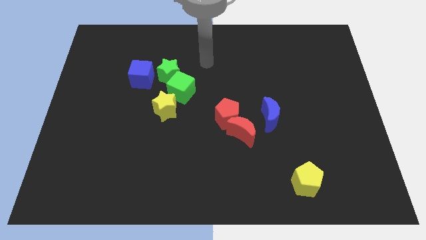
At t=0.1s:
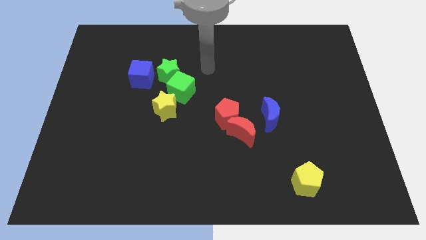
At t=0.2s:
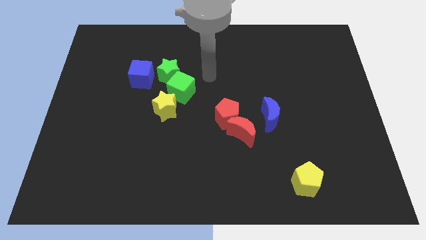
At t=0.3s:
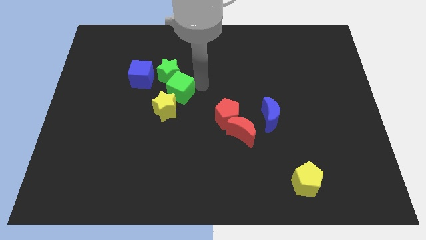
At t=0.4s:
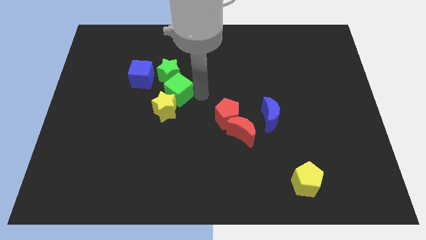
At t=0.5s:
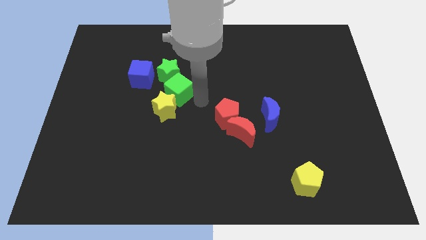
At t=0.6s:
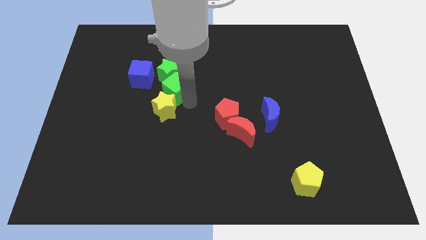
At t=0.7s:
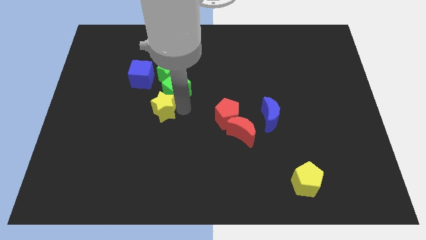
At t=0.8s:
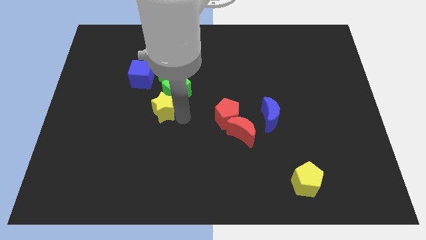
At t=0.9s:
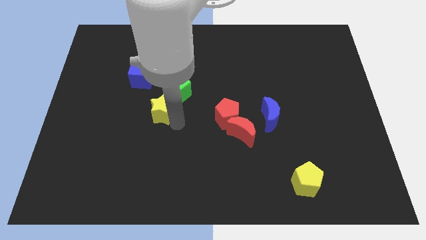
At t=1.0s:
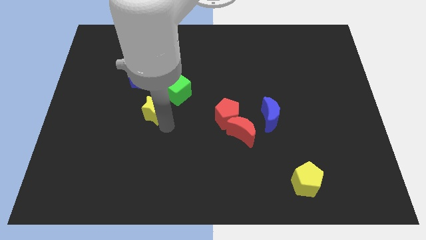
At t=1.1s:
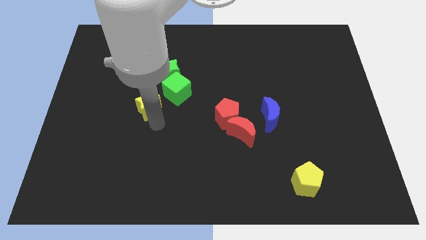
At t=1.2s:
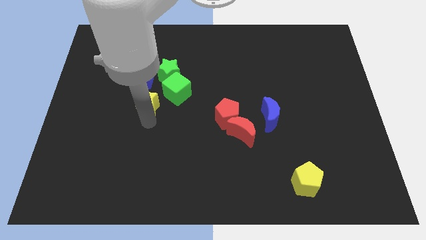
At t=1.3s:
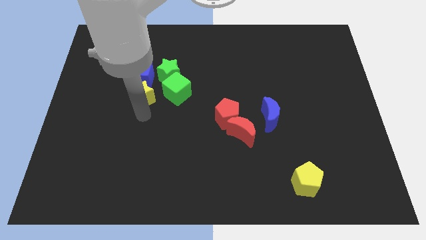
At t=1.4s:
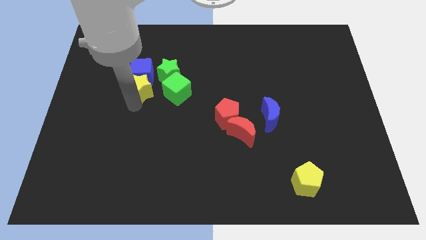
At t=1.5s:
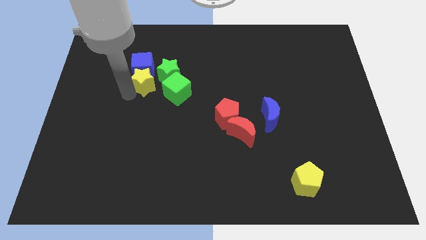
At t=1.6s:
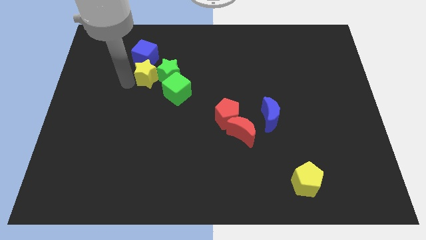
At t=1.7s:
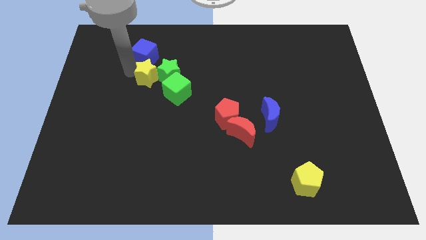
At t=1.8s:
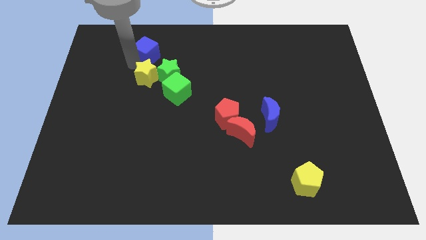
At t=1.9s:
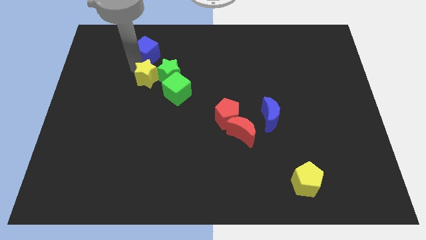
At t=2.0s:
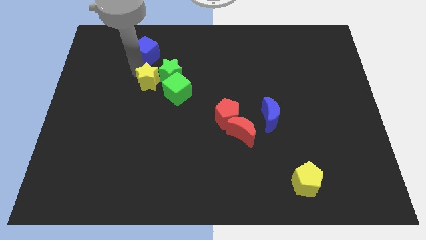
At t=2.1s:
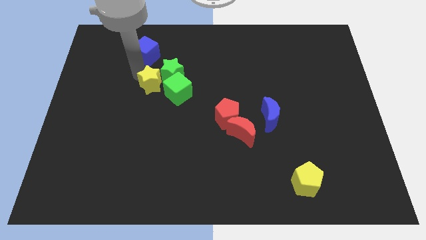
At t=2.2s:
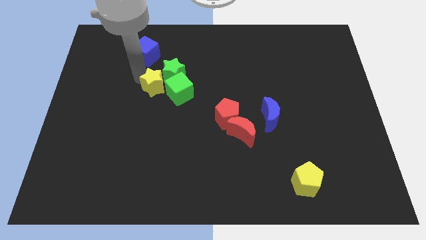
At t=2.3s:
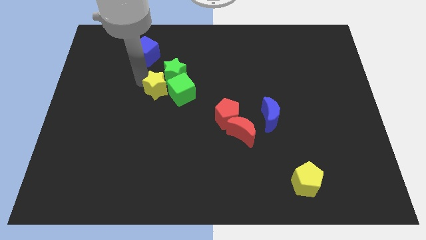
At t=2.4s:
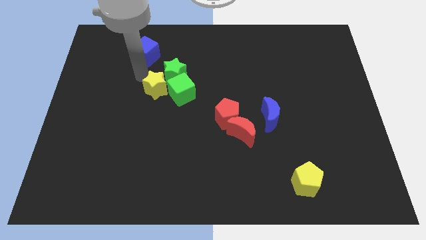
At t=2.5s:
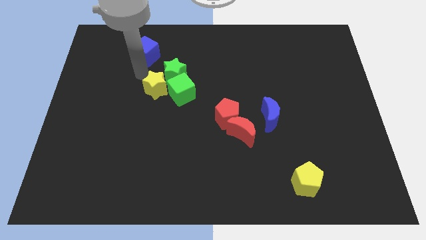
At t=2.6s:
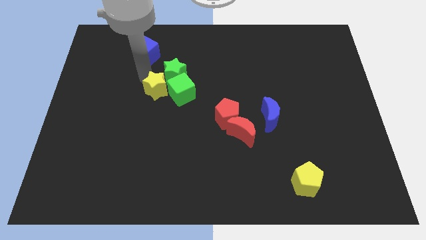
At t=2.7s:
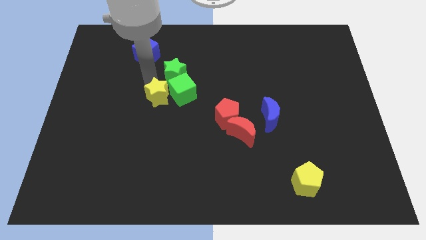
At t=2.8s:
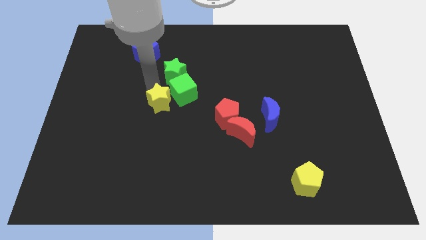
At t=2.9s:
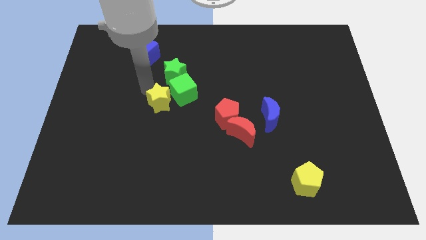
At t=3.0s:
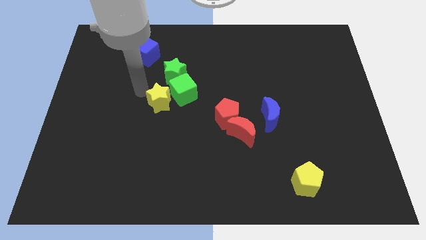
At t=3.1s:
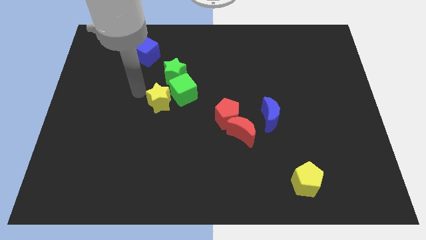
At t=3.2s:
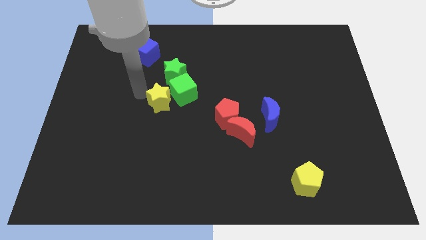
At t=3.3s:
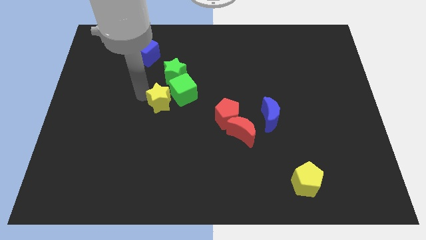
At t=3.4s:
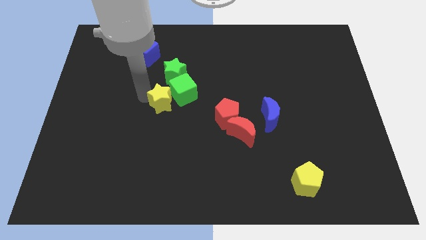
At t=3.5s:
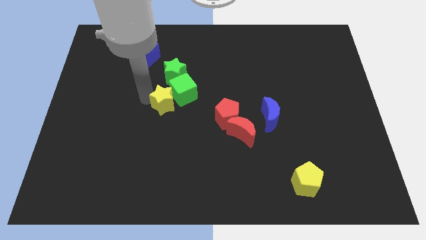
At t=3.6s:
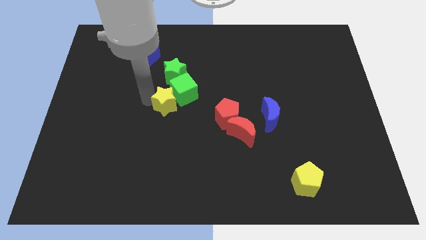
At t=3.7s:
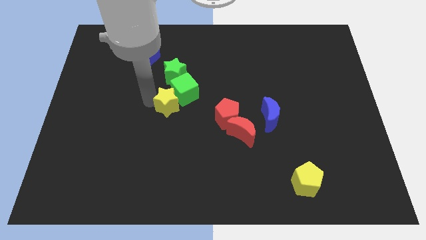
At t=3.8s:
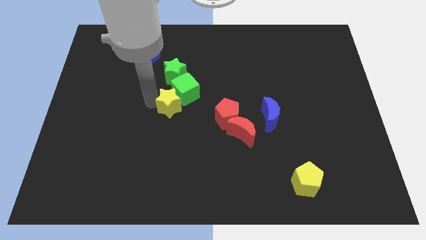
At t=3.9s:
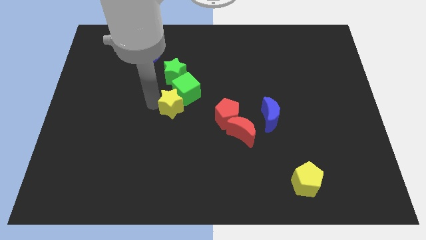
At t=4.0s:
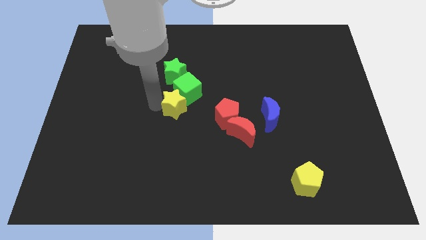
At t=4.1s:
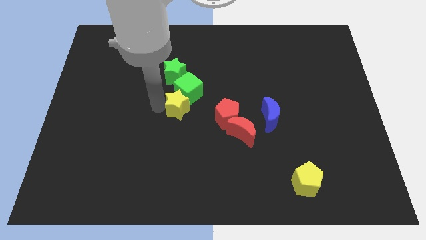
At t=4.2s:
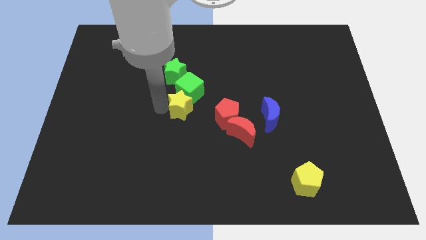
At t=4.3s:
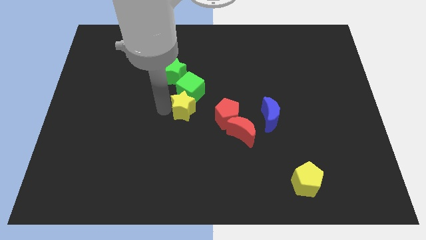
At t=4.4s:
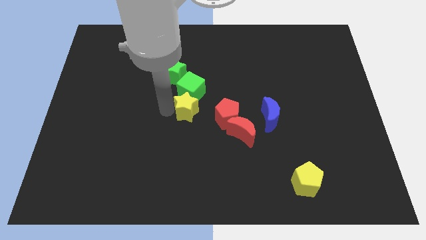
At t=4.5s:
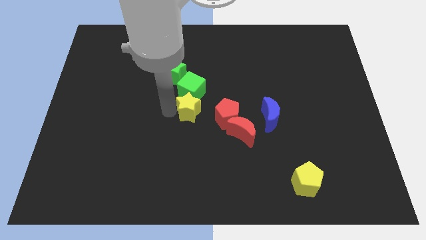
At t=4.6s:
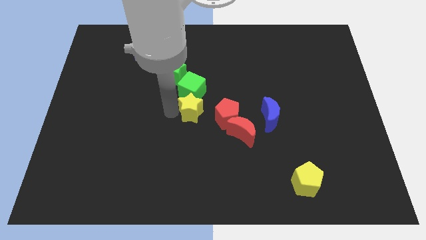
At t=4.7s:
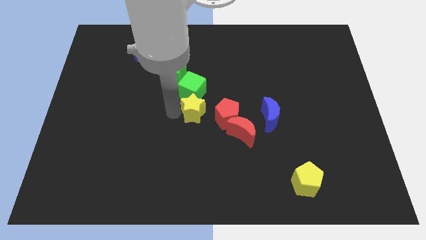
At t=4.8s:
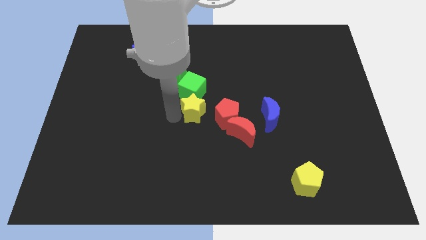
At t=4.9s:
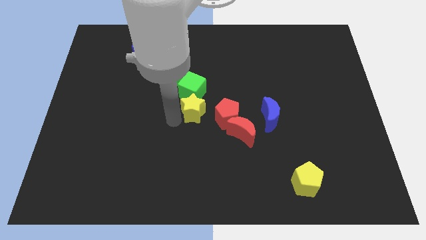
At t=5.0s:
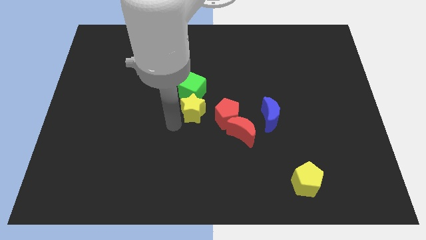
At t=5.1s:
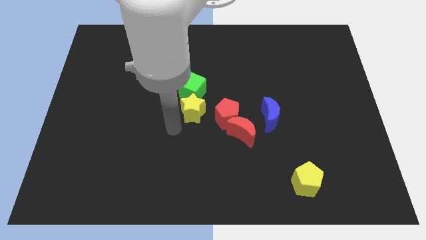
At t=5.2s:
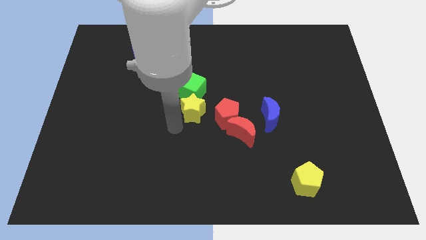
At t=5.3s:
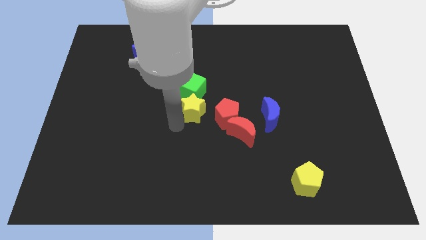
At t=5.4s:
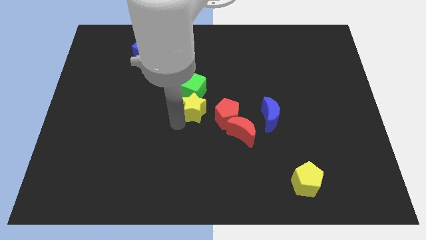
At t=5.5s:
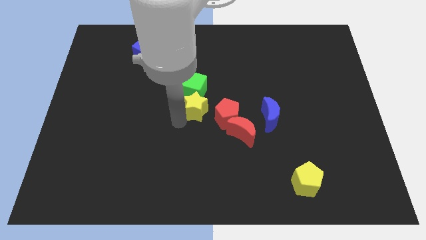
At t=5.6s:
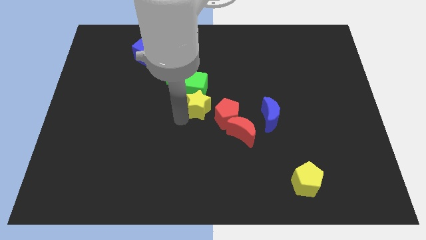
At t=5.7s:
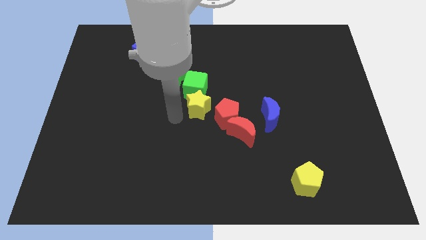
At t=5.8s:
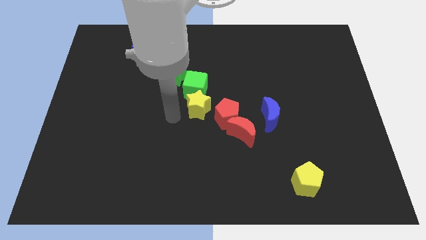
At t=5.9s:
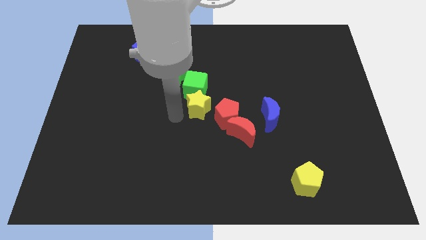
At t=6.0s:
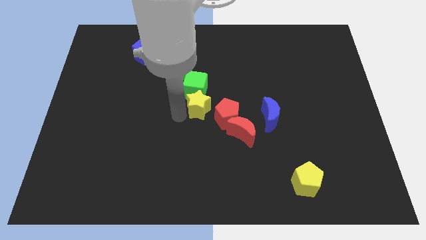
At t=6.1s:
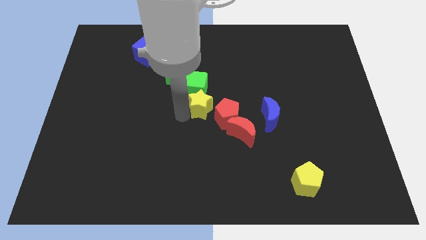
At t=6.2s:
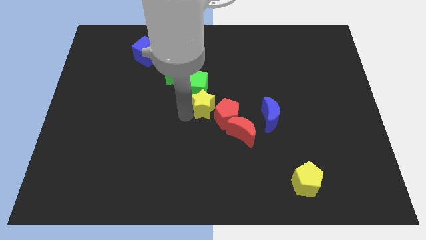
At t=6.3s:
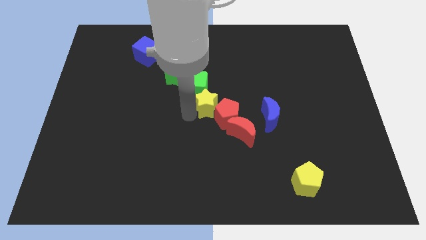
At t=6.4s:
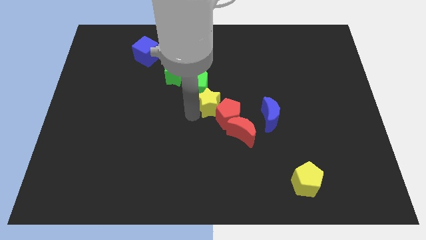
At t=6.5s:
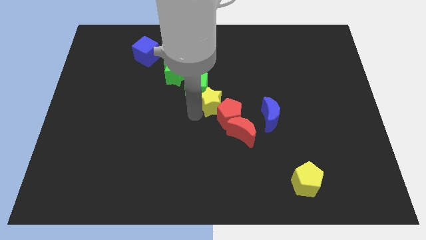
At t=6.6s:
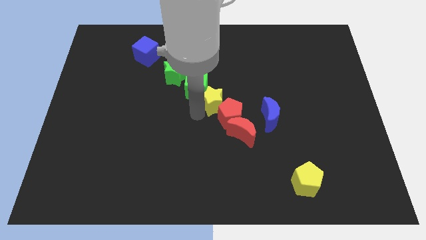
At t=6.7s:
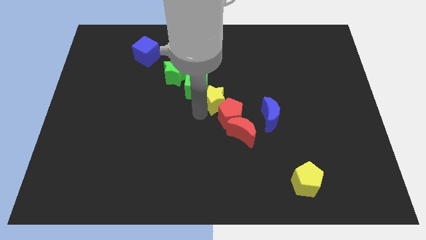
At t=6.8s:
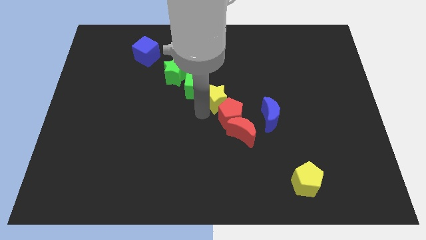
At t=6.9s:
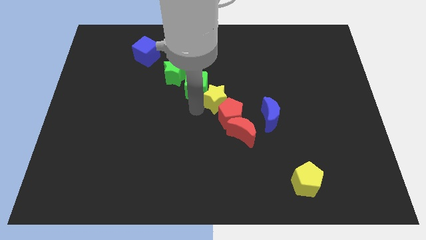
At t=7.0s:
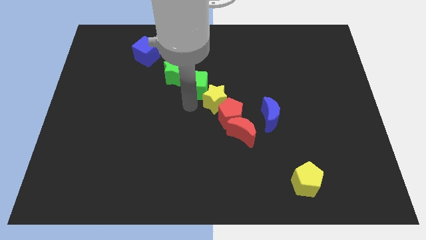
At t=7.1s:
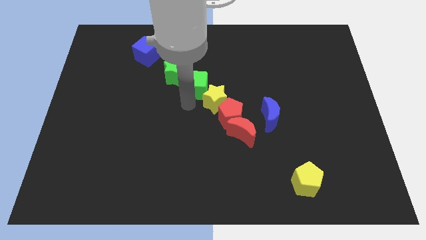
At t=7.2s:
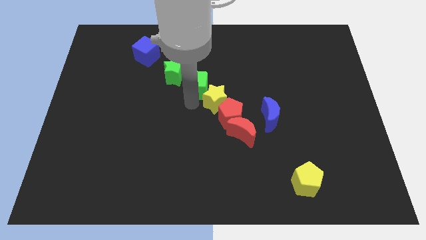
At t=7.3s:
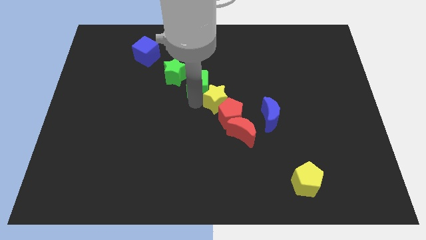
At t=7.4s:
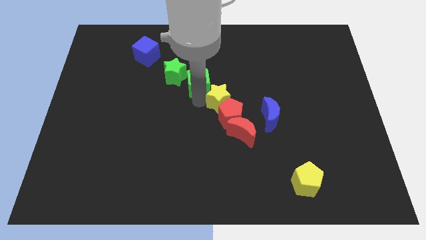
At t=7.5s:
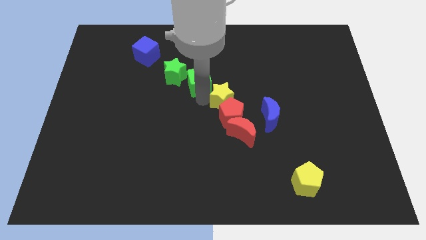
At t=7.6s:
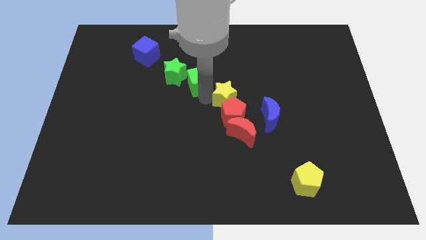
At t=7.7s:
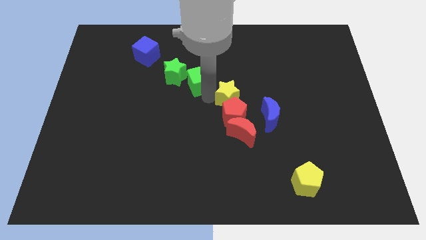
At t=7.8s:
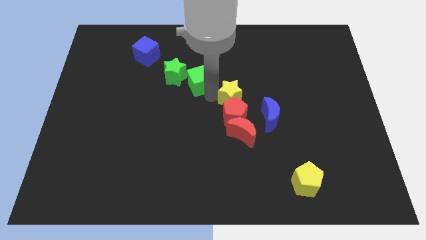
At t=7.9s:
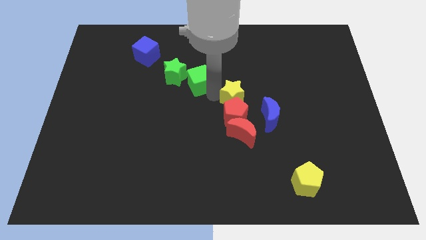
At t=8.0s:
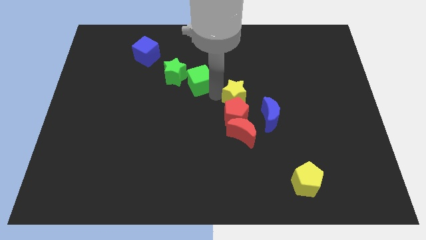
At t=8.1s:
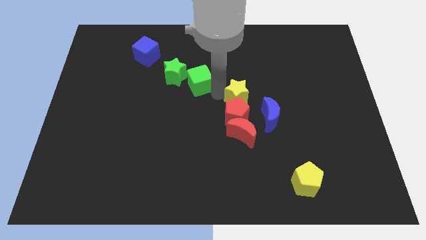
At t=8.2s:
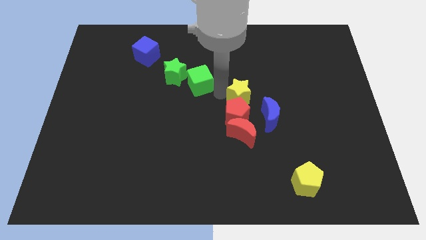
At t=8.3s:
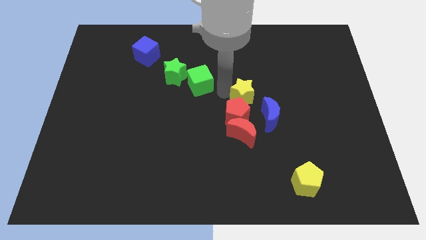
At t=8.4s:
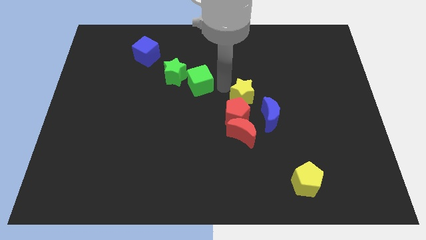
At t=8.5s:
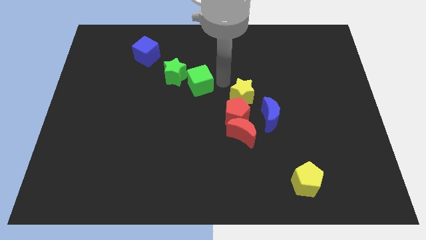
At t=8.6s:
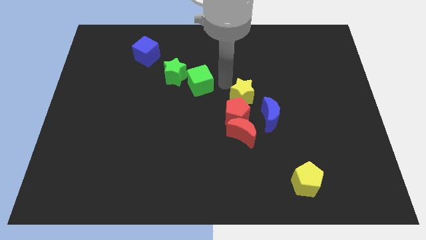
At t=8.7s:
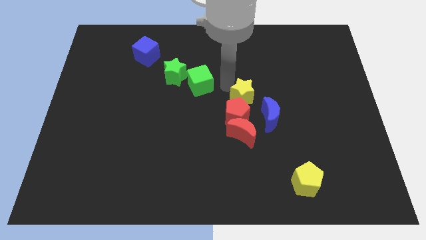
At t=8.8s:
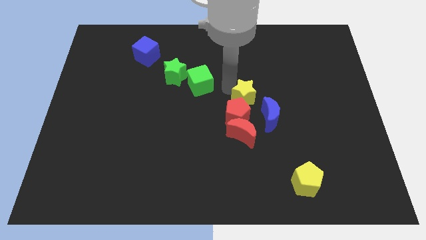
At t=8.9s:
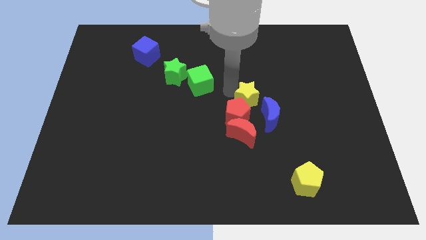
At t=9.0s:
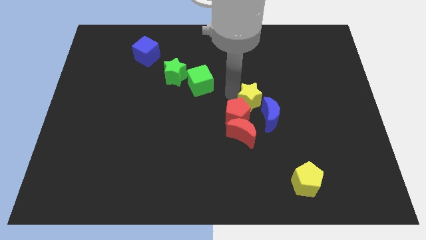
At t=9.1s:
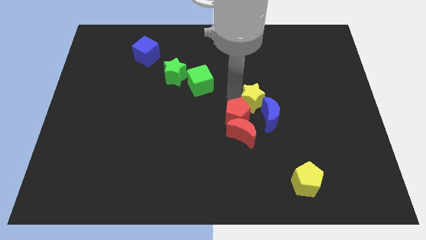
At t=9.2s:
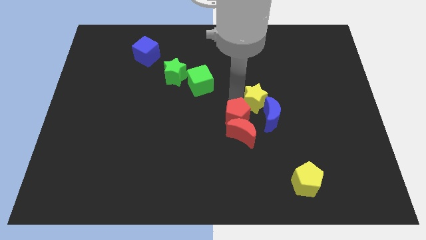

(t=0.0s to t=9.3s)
put the yellow star towards the blue moon
